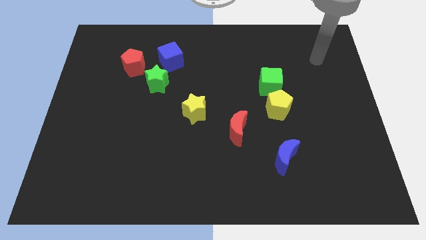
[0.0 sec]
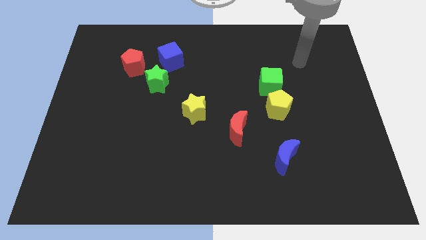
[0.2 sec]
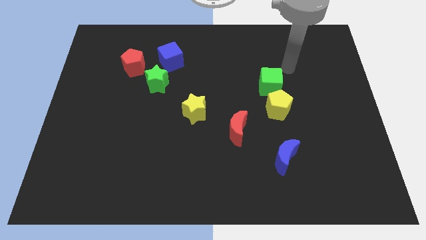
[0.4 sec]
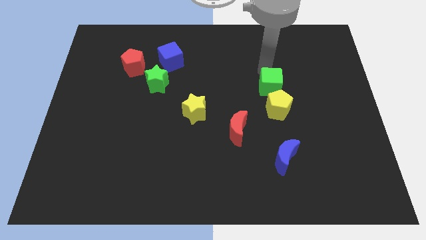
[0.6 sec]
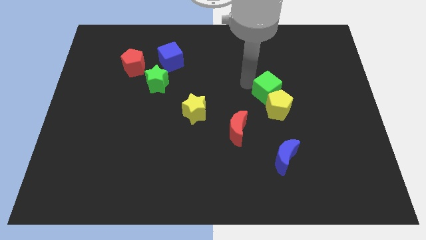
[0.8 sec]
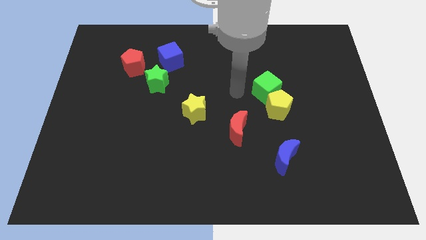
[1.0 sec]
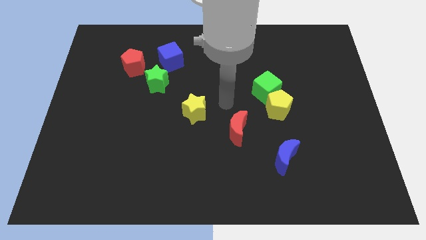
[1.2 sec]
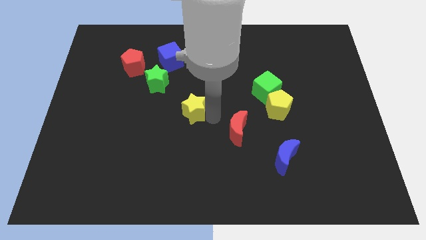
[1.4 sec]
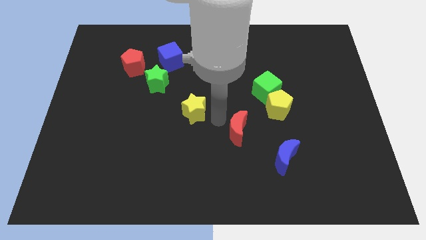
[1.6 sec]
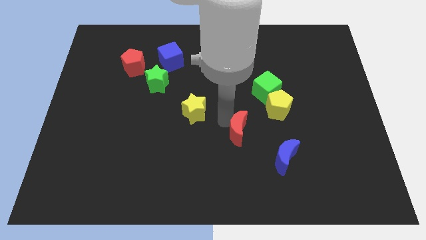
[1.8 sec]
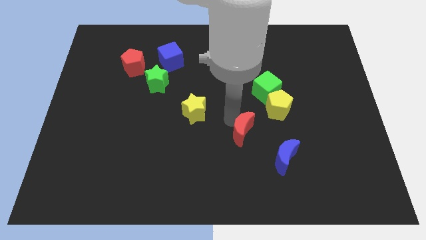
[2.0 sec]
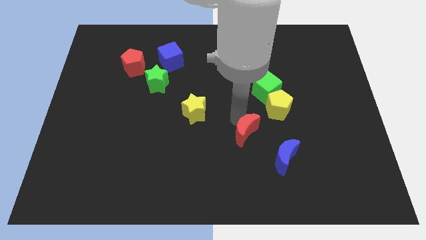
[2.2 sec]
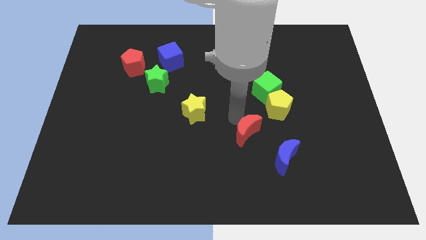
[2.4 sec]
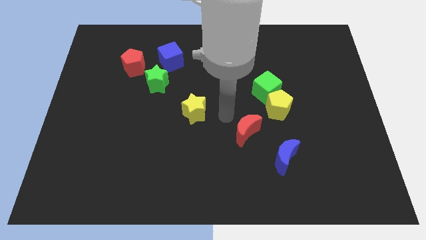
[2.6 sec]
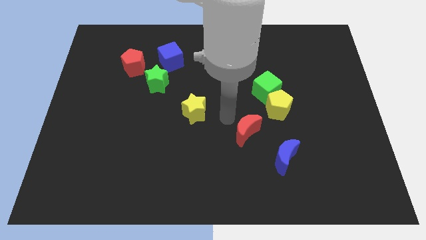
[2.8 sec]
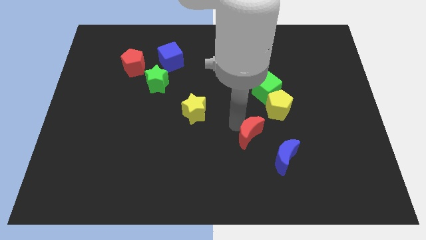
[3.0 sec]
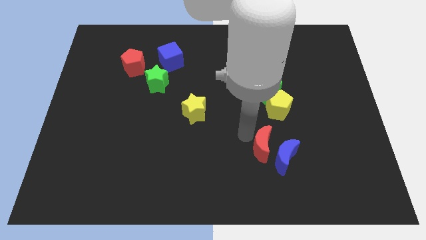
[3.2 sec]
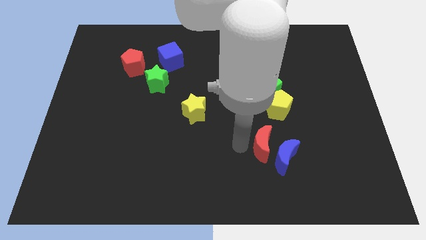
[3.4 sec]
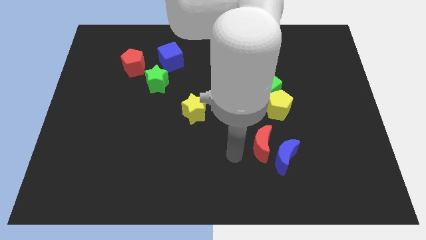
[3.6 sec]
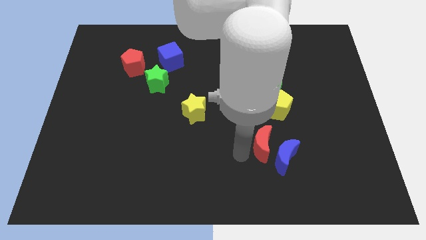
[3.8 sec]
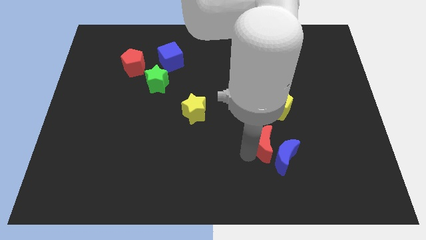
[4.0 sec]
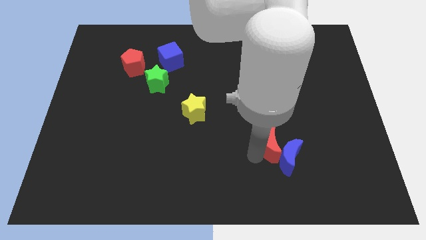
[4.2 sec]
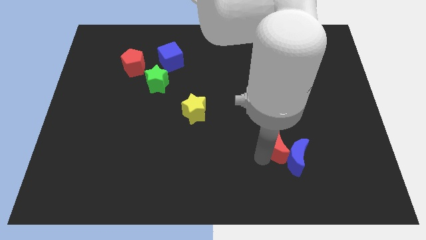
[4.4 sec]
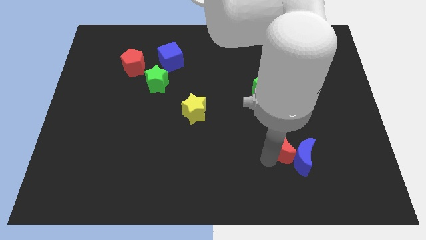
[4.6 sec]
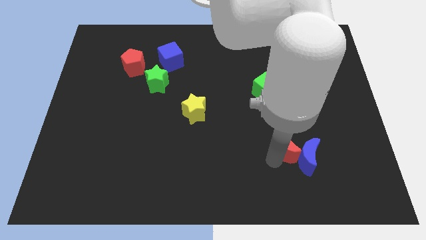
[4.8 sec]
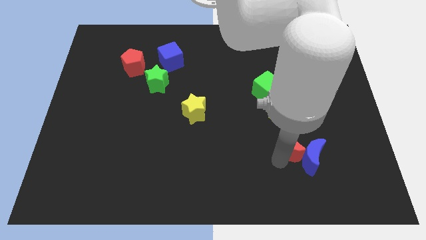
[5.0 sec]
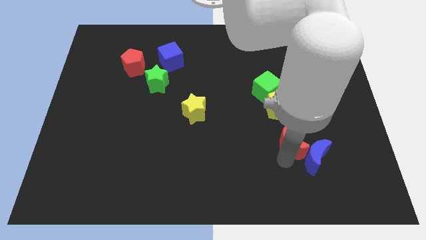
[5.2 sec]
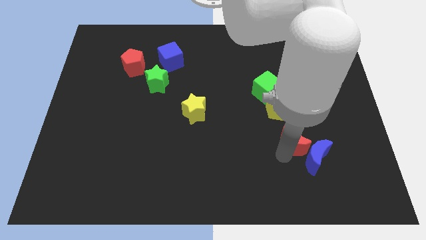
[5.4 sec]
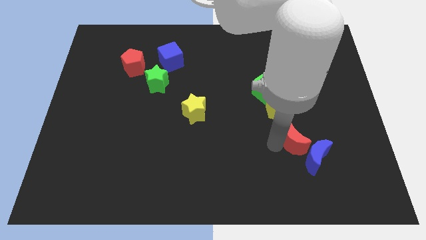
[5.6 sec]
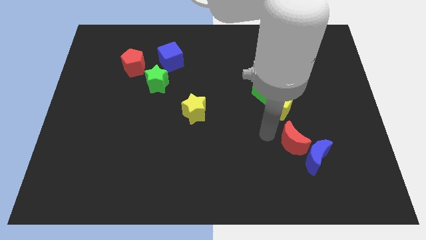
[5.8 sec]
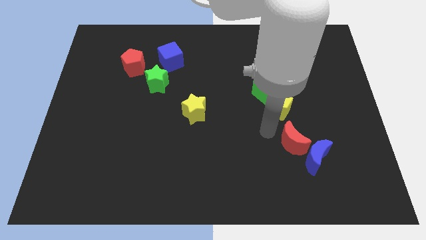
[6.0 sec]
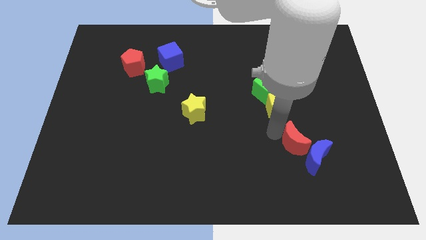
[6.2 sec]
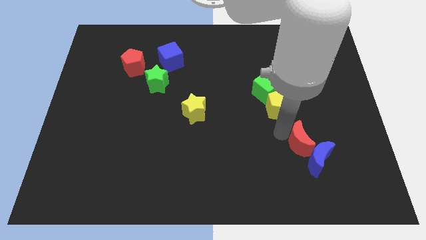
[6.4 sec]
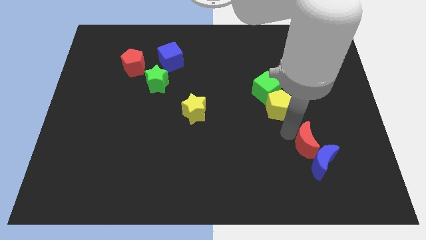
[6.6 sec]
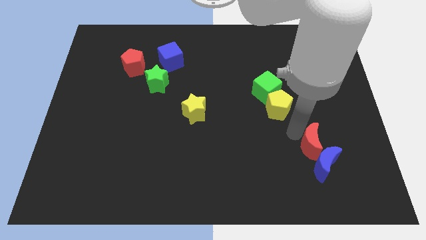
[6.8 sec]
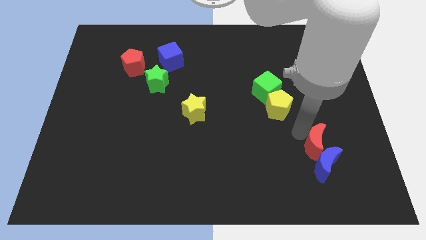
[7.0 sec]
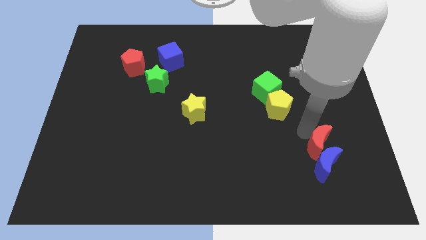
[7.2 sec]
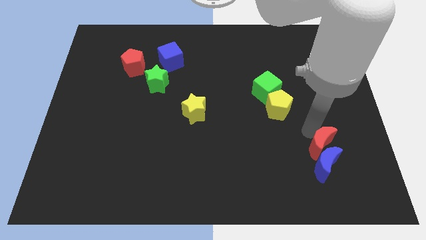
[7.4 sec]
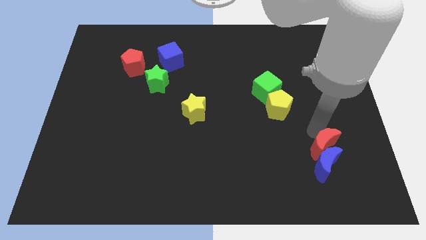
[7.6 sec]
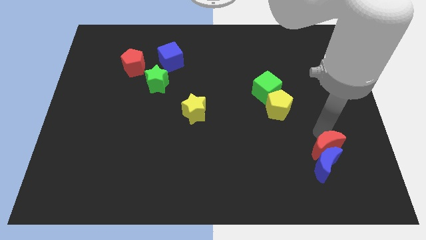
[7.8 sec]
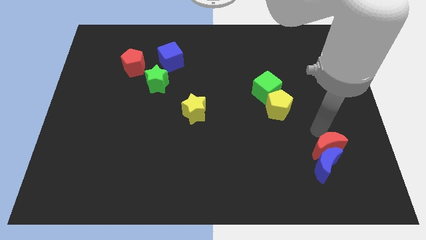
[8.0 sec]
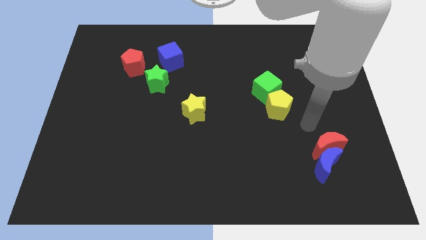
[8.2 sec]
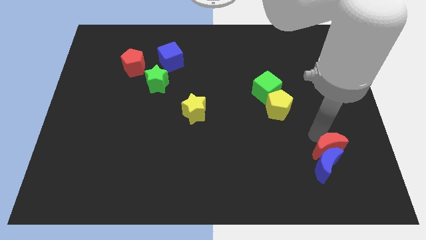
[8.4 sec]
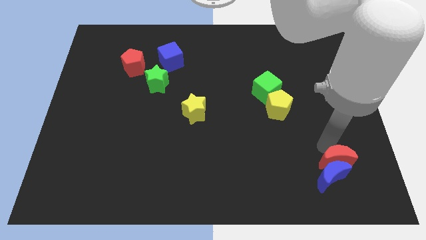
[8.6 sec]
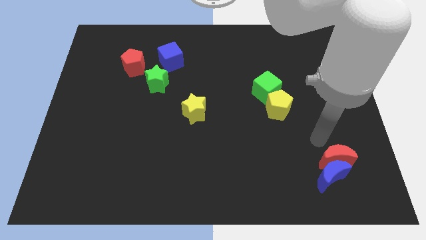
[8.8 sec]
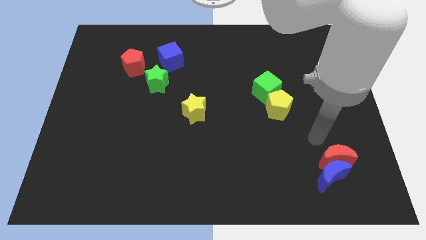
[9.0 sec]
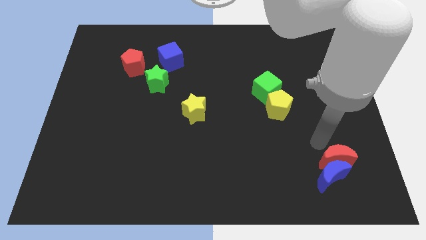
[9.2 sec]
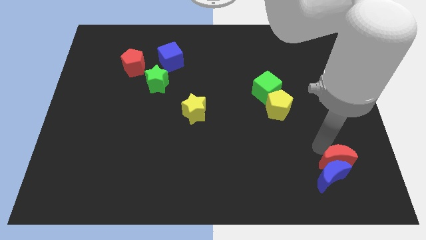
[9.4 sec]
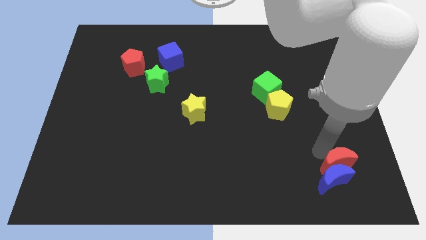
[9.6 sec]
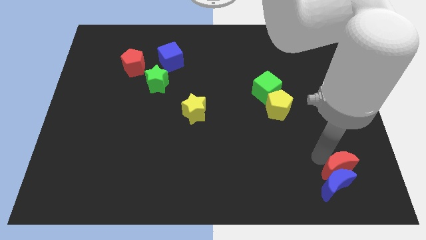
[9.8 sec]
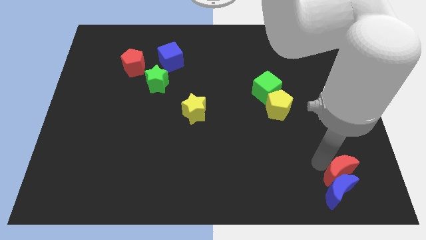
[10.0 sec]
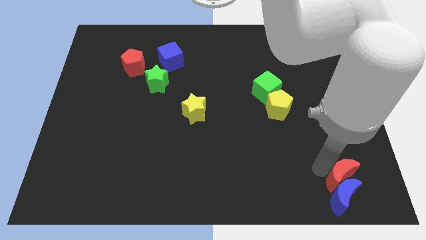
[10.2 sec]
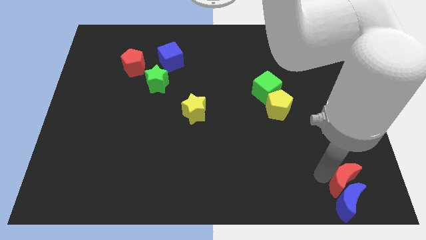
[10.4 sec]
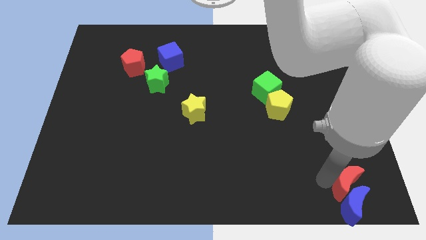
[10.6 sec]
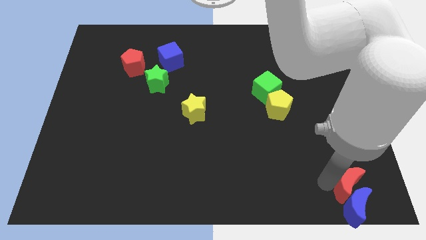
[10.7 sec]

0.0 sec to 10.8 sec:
move the red moon to the bottom right corner

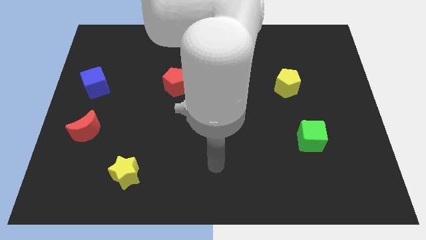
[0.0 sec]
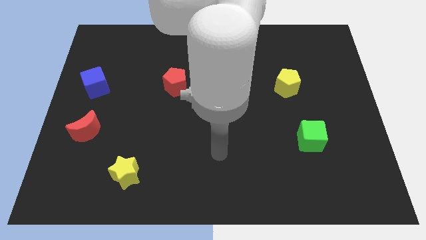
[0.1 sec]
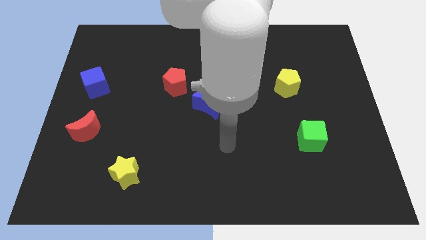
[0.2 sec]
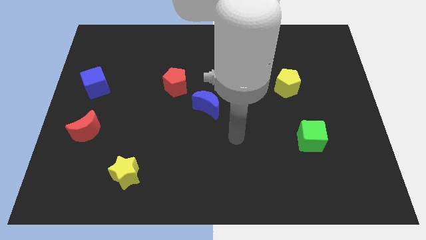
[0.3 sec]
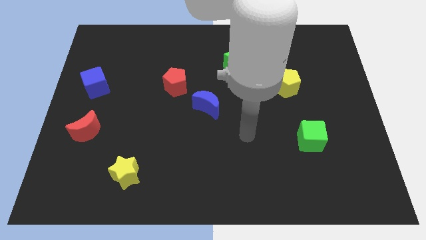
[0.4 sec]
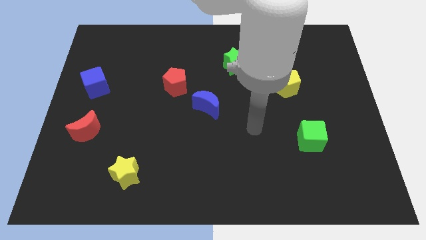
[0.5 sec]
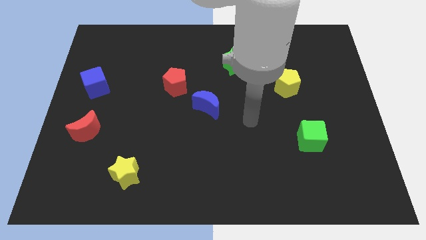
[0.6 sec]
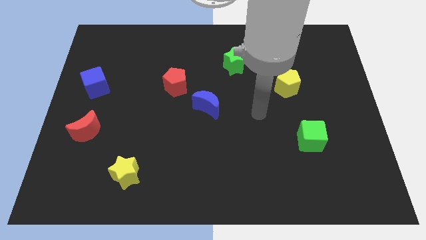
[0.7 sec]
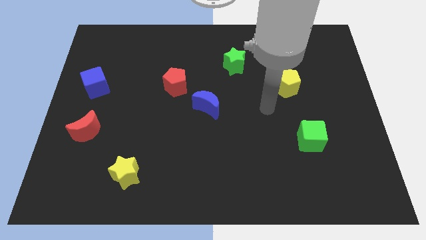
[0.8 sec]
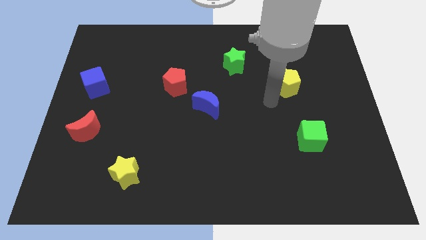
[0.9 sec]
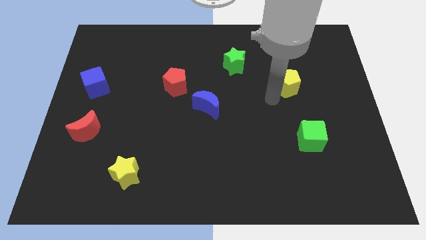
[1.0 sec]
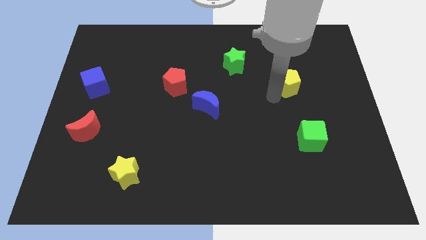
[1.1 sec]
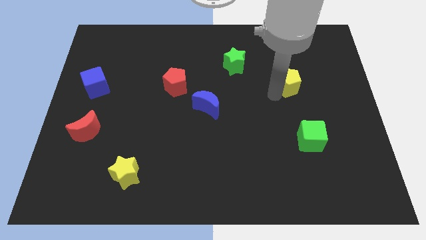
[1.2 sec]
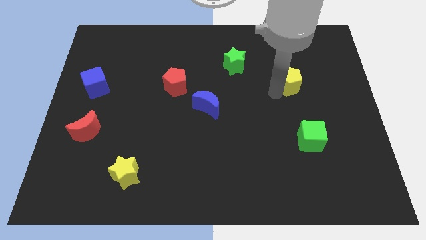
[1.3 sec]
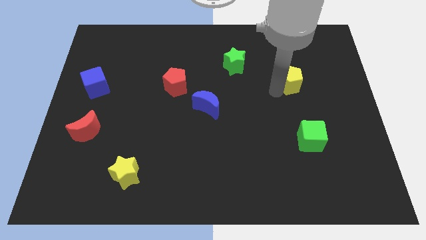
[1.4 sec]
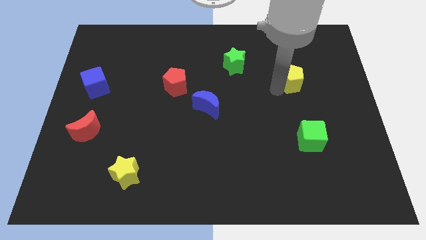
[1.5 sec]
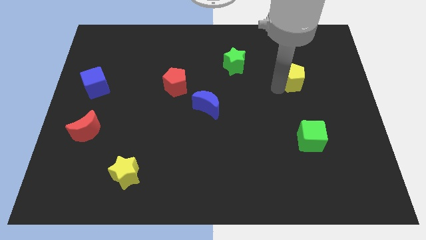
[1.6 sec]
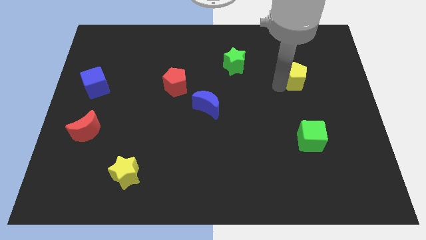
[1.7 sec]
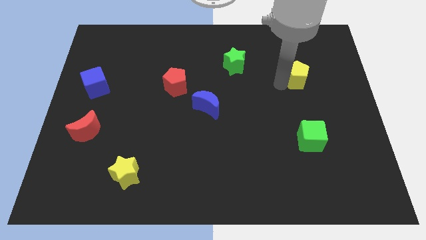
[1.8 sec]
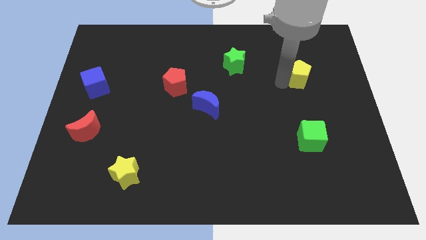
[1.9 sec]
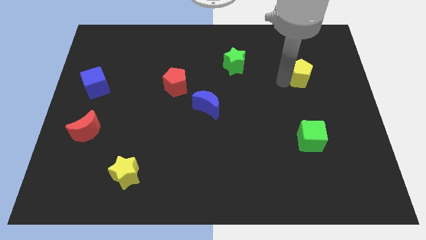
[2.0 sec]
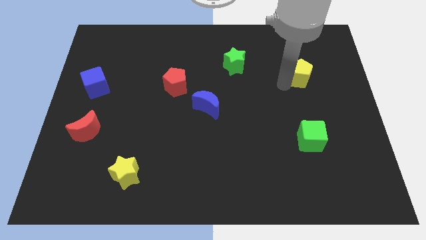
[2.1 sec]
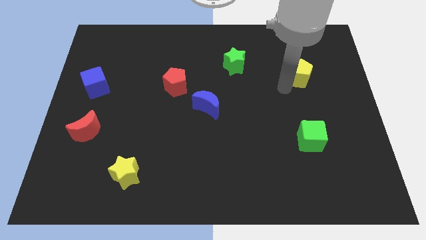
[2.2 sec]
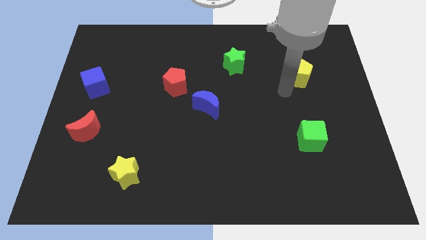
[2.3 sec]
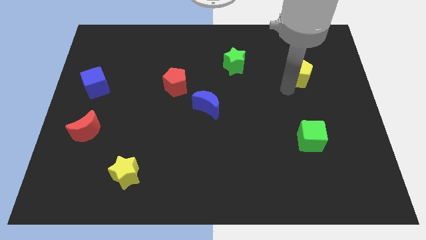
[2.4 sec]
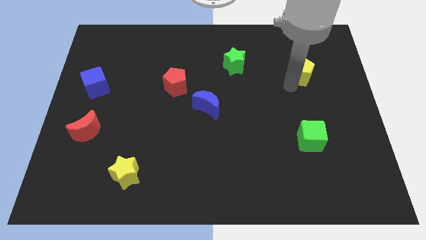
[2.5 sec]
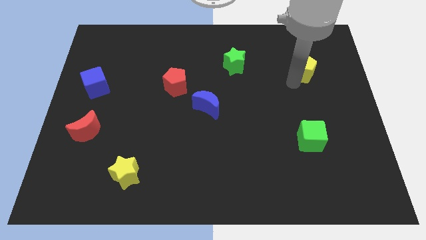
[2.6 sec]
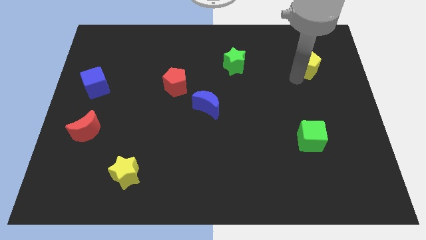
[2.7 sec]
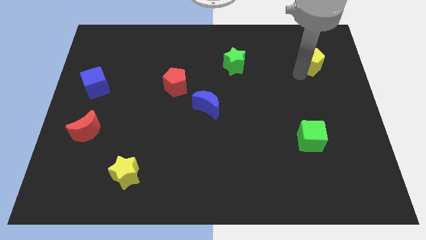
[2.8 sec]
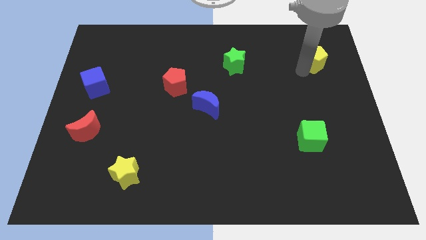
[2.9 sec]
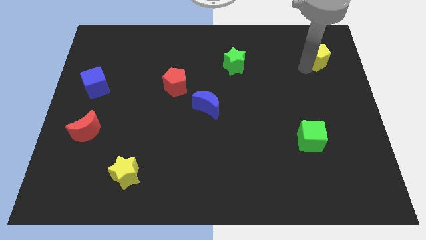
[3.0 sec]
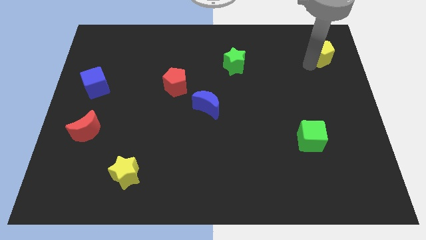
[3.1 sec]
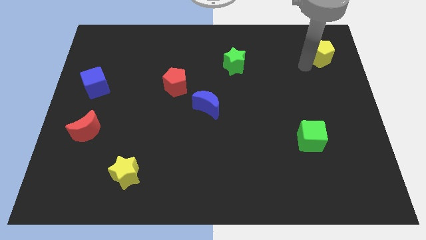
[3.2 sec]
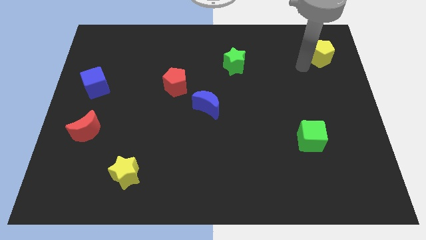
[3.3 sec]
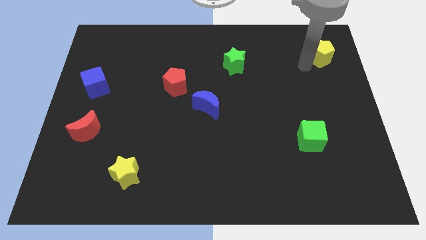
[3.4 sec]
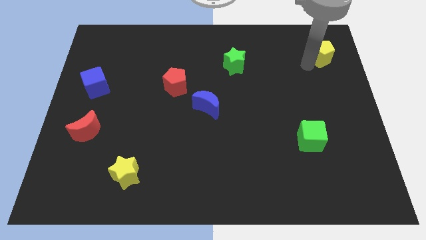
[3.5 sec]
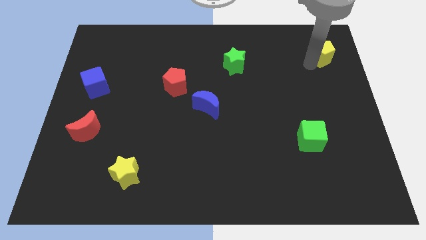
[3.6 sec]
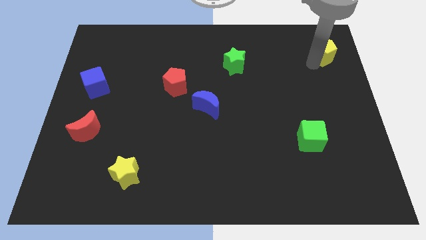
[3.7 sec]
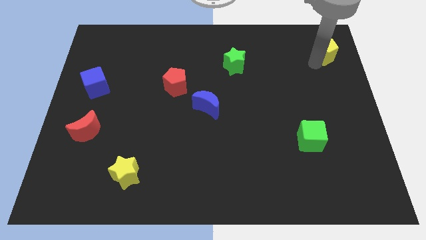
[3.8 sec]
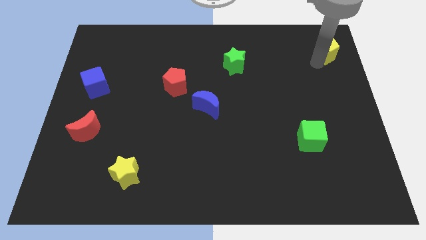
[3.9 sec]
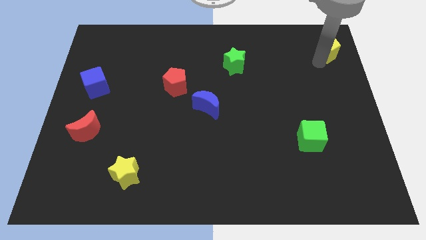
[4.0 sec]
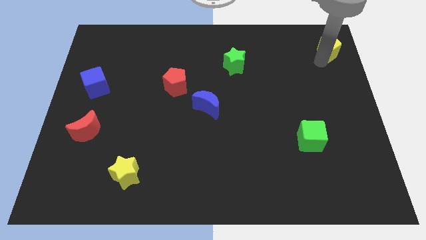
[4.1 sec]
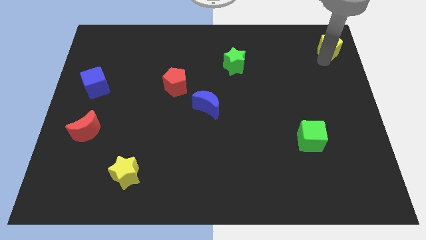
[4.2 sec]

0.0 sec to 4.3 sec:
move the yellow pentagon to the upper right corner
